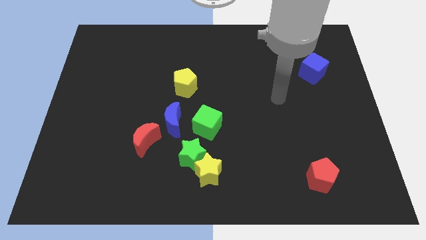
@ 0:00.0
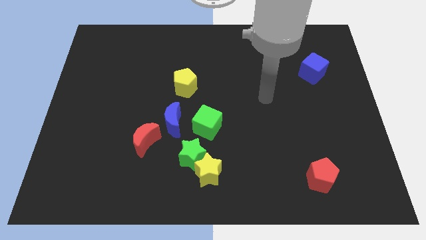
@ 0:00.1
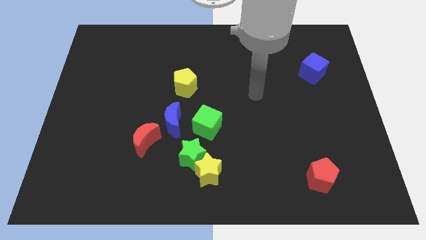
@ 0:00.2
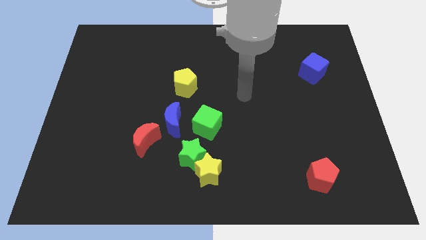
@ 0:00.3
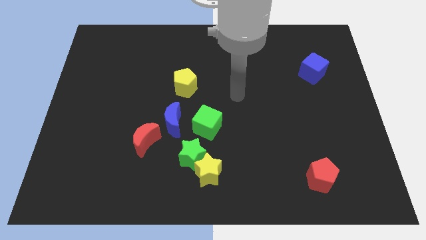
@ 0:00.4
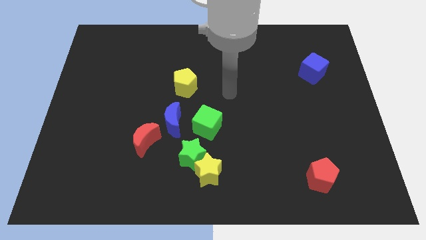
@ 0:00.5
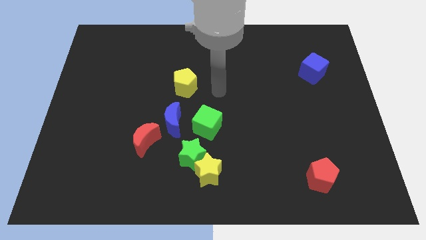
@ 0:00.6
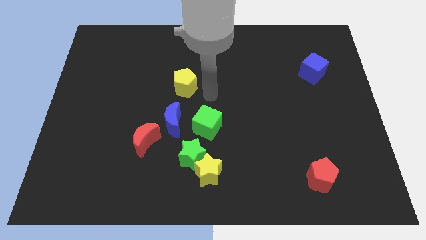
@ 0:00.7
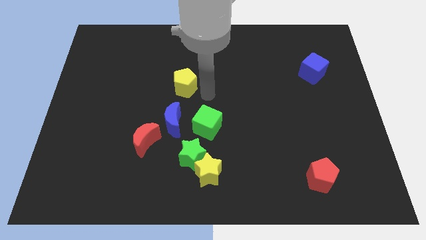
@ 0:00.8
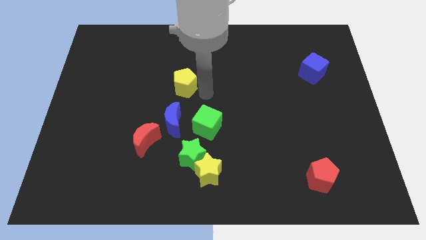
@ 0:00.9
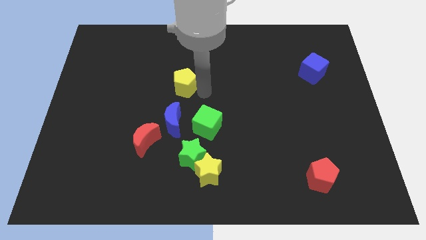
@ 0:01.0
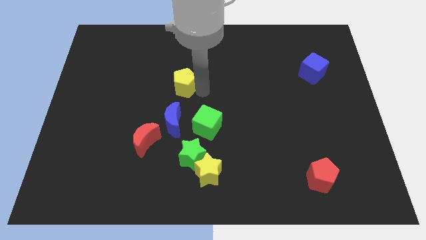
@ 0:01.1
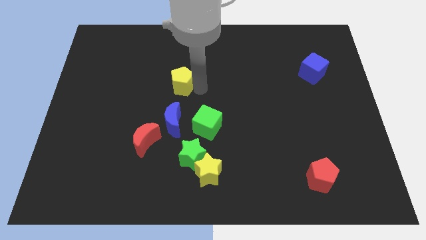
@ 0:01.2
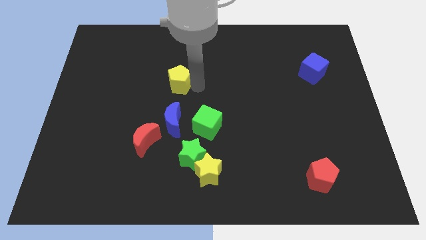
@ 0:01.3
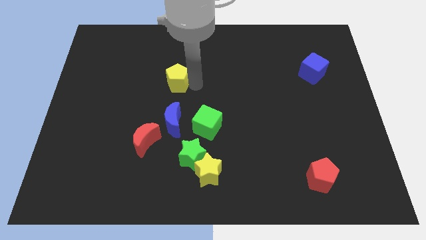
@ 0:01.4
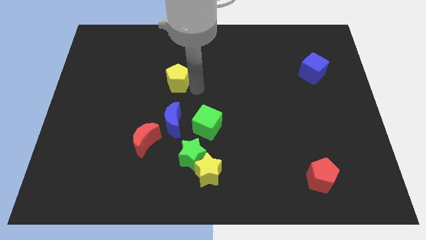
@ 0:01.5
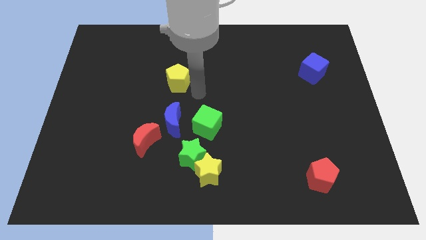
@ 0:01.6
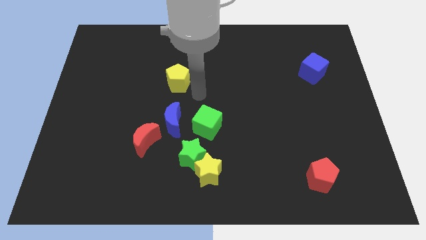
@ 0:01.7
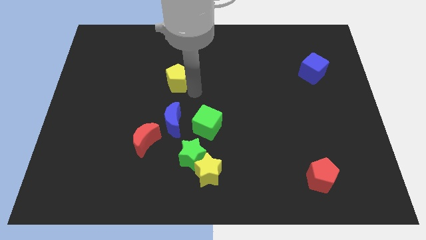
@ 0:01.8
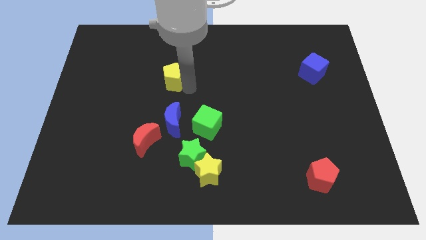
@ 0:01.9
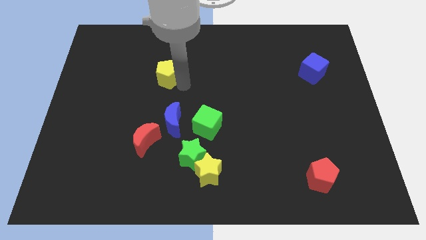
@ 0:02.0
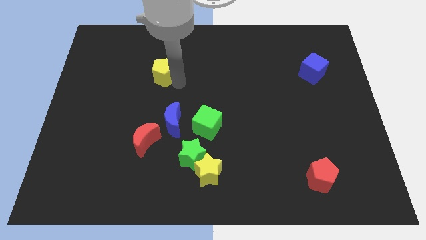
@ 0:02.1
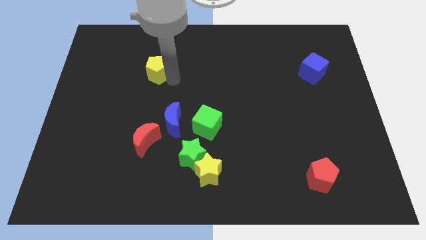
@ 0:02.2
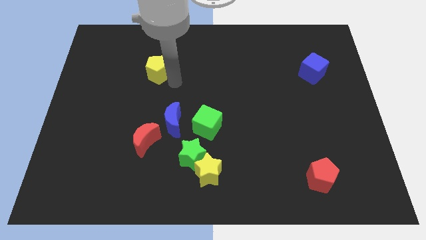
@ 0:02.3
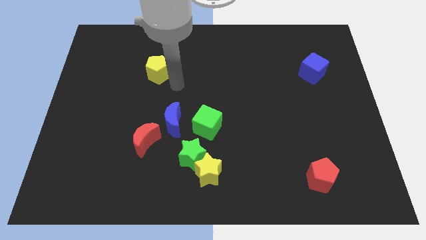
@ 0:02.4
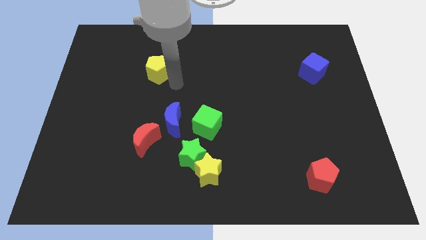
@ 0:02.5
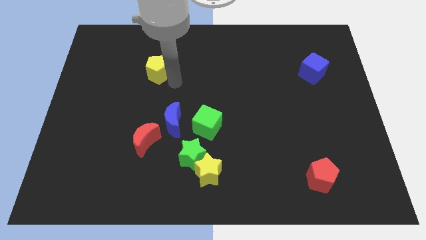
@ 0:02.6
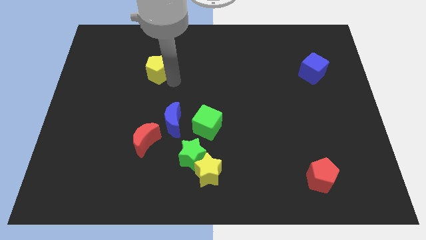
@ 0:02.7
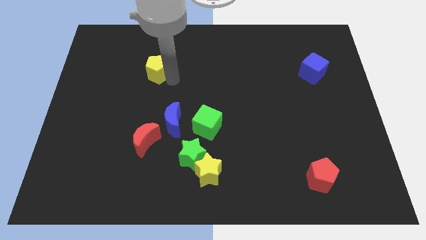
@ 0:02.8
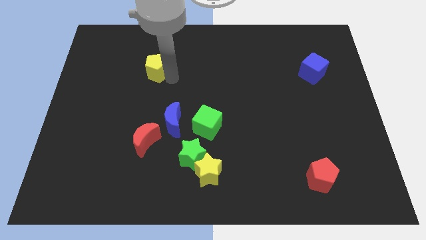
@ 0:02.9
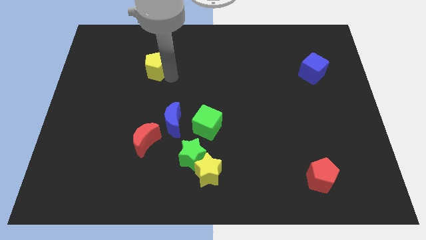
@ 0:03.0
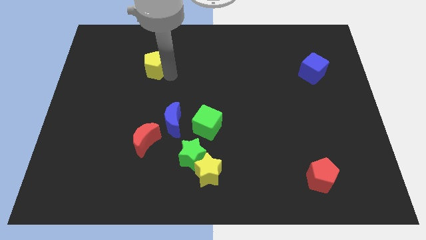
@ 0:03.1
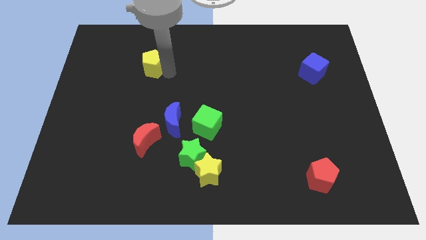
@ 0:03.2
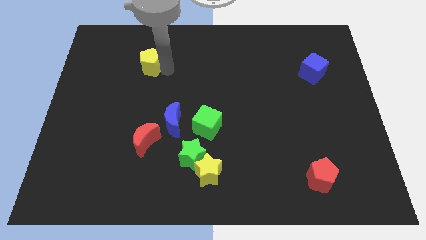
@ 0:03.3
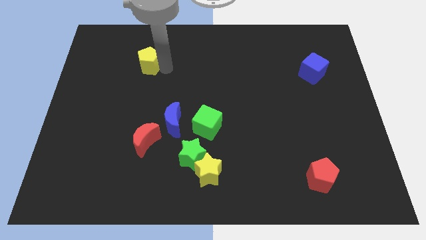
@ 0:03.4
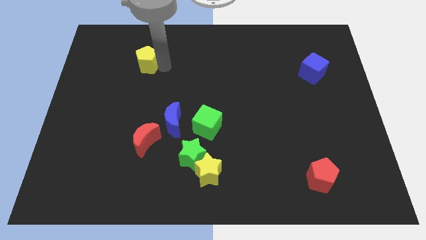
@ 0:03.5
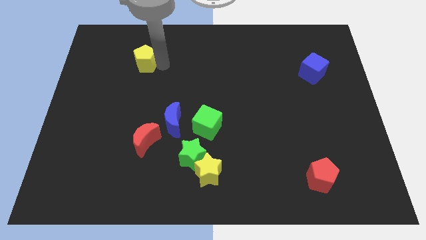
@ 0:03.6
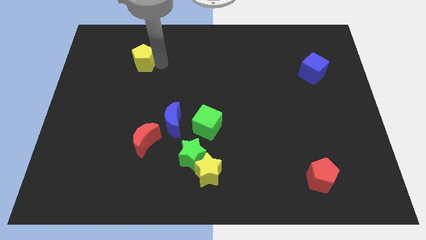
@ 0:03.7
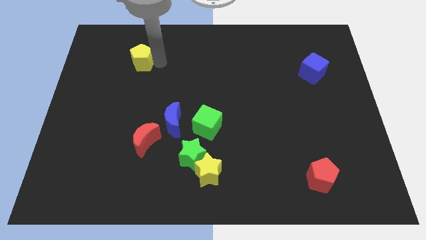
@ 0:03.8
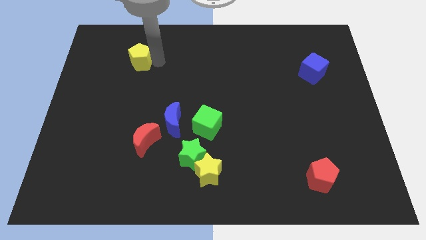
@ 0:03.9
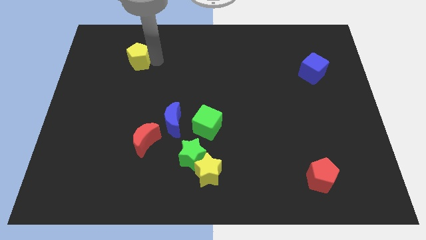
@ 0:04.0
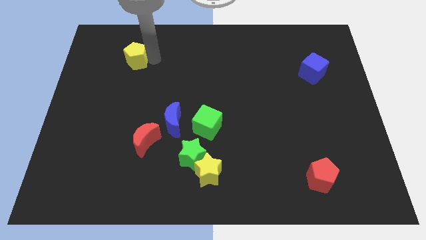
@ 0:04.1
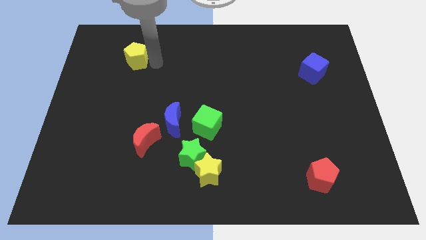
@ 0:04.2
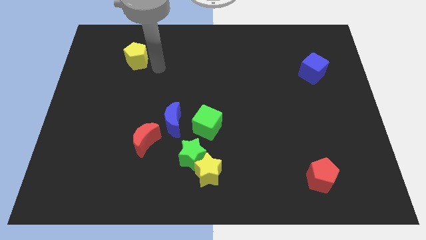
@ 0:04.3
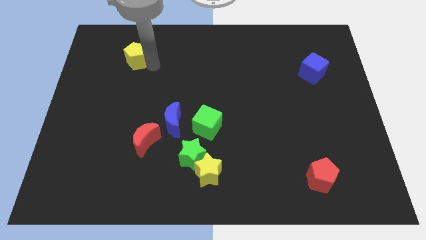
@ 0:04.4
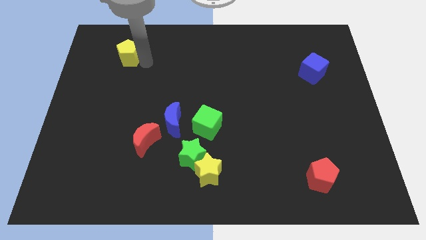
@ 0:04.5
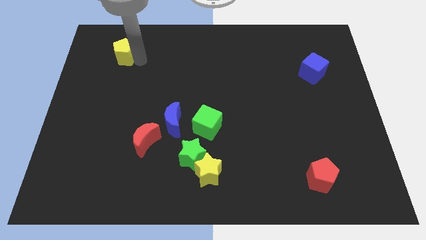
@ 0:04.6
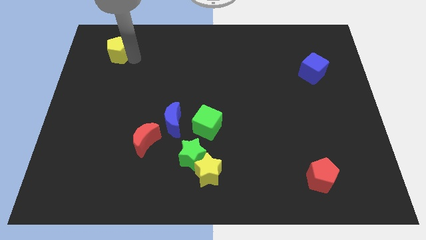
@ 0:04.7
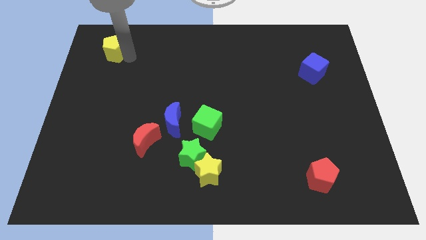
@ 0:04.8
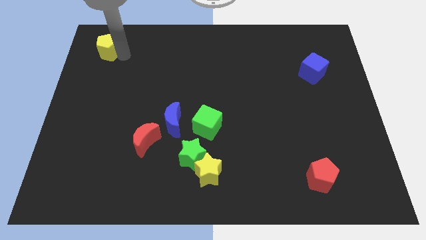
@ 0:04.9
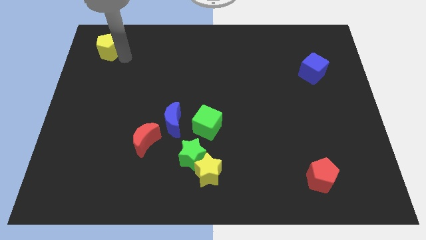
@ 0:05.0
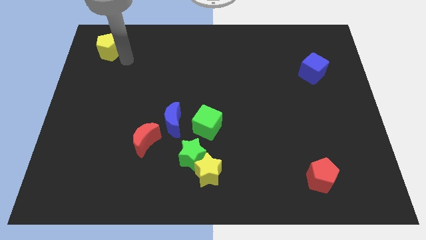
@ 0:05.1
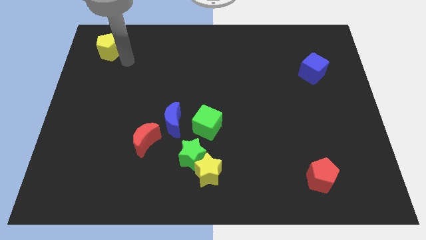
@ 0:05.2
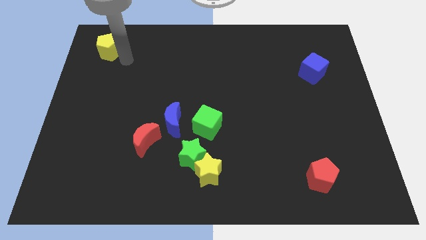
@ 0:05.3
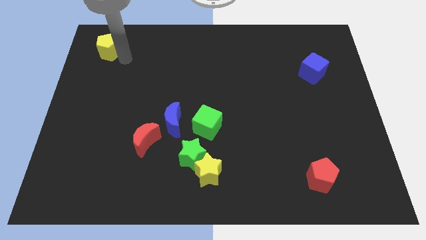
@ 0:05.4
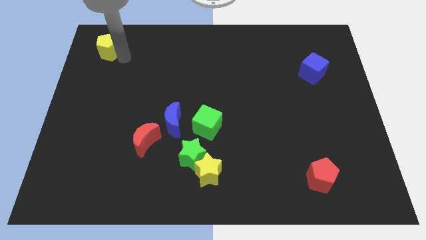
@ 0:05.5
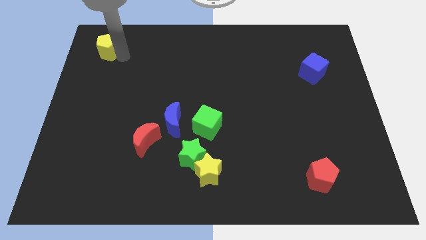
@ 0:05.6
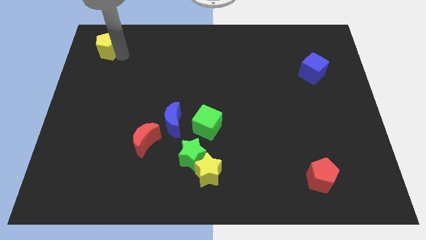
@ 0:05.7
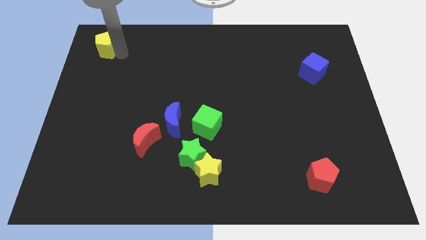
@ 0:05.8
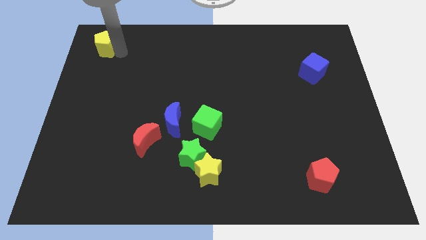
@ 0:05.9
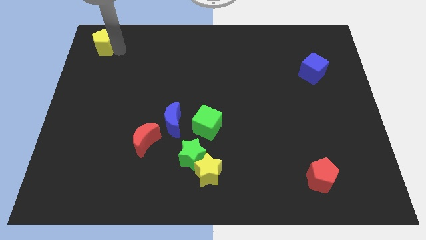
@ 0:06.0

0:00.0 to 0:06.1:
push the yellow pentagon to the top left of the board
